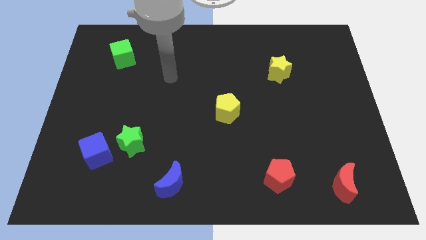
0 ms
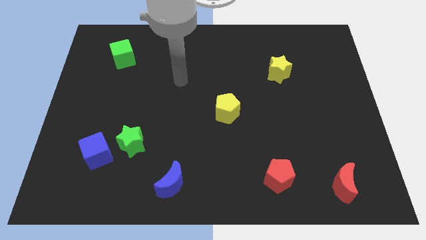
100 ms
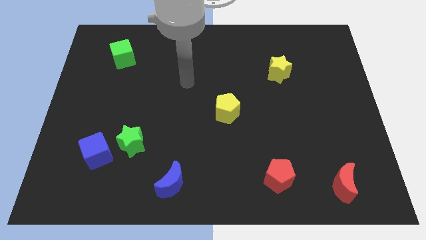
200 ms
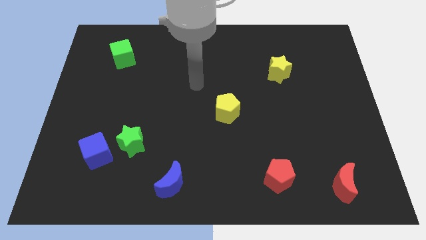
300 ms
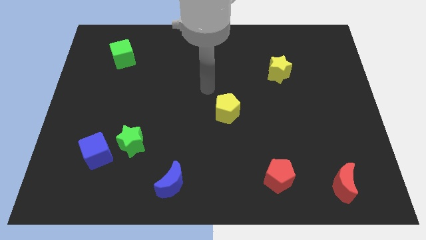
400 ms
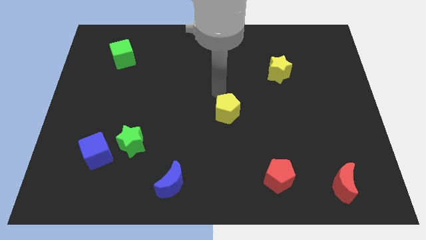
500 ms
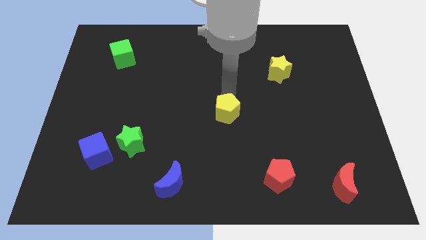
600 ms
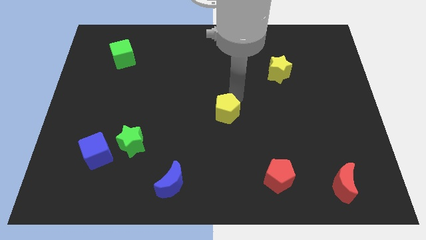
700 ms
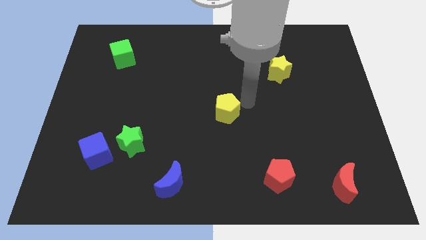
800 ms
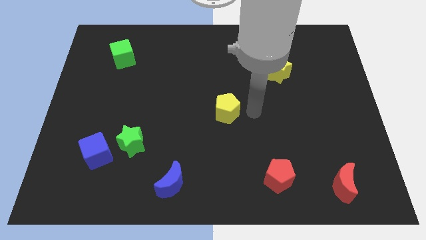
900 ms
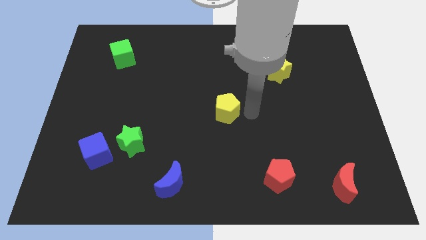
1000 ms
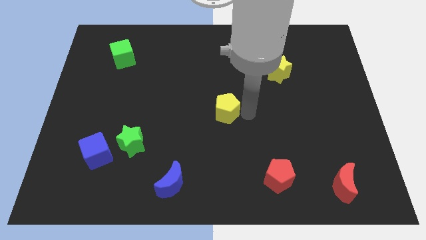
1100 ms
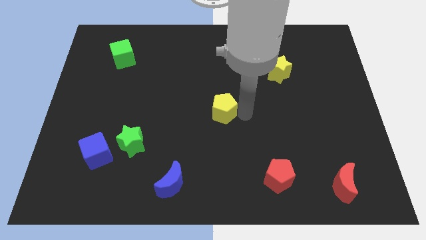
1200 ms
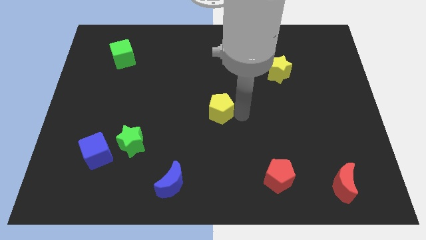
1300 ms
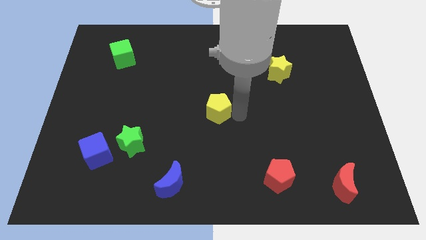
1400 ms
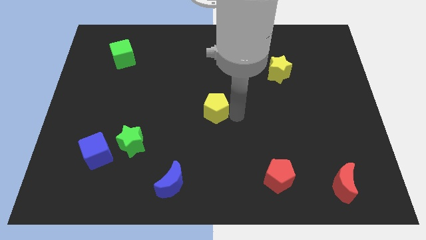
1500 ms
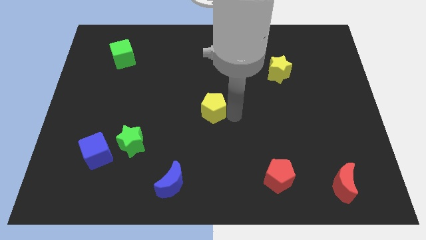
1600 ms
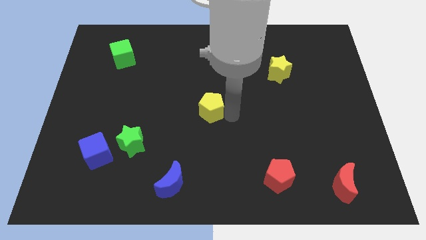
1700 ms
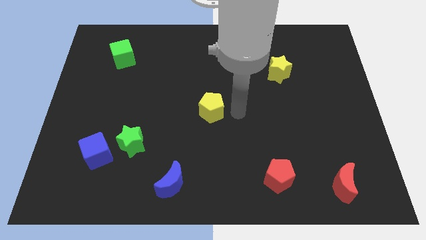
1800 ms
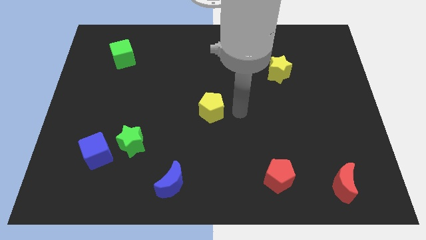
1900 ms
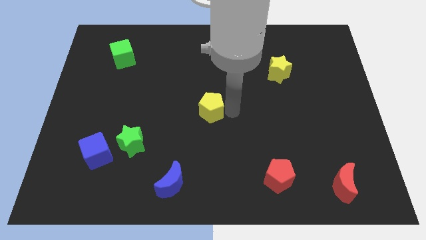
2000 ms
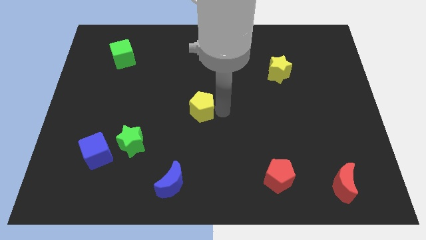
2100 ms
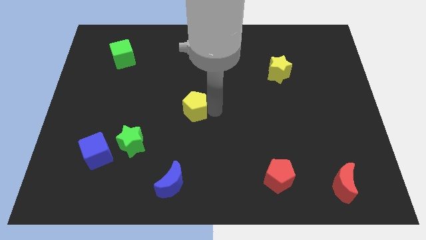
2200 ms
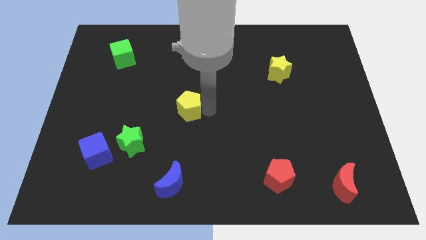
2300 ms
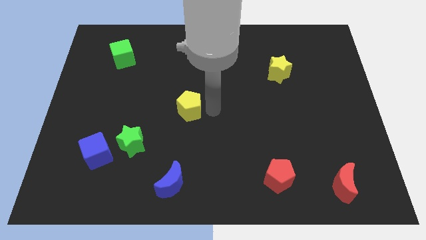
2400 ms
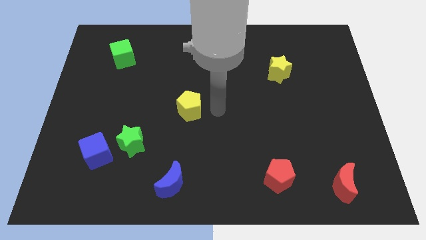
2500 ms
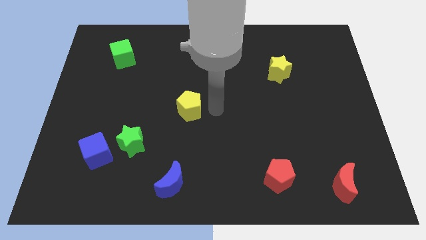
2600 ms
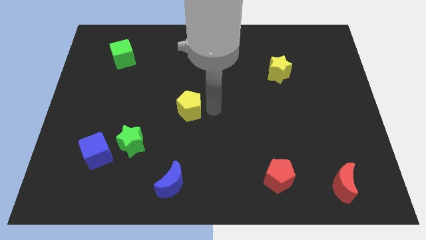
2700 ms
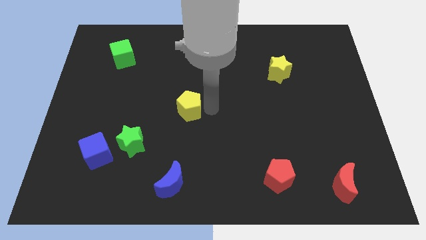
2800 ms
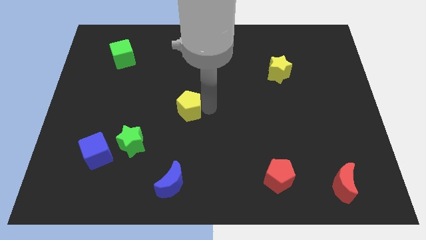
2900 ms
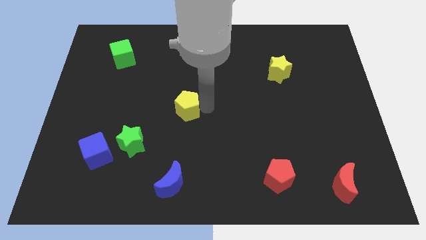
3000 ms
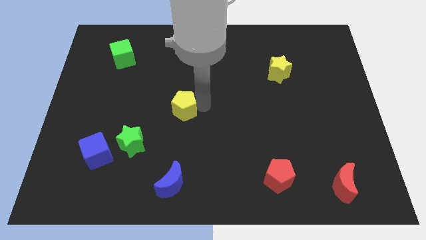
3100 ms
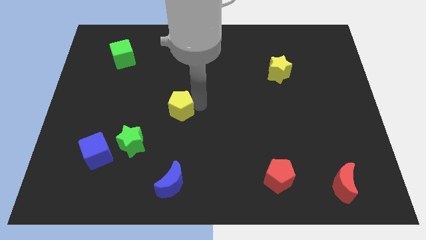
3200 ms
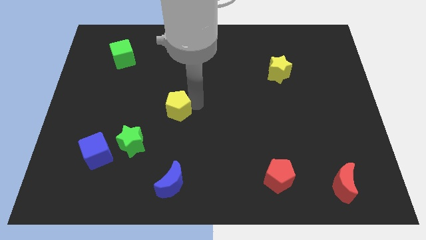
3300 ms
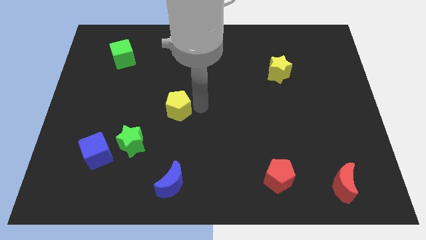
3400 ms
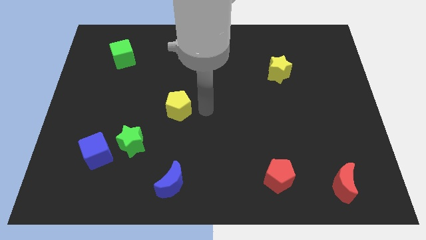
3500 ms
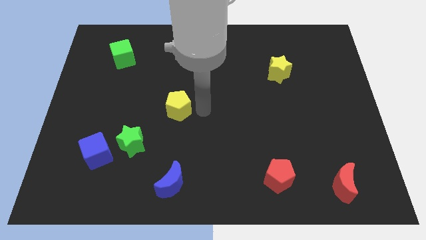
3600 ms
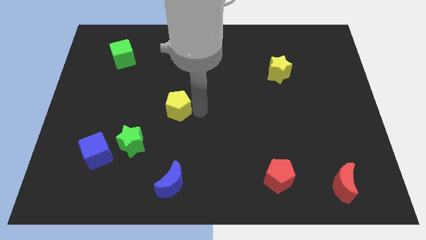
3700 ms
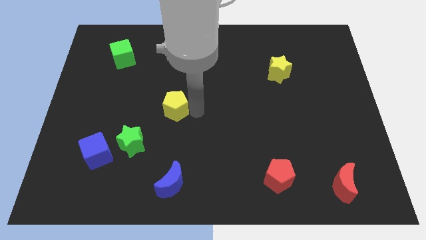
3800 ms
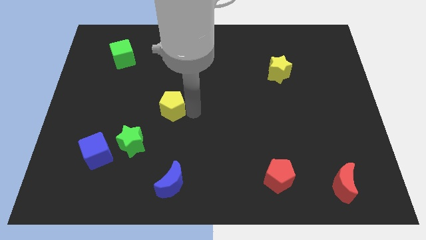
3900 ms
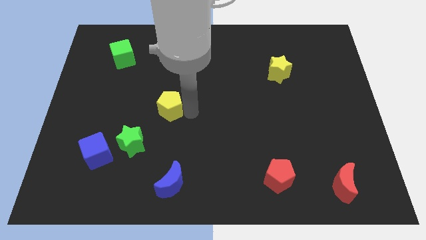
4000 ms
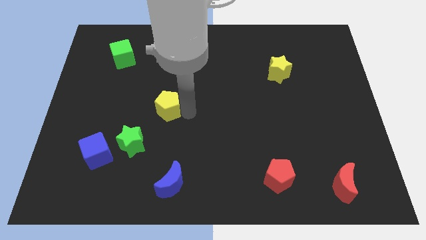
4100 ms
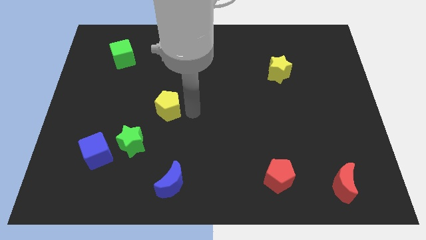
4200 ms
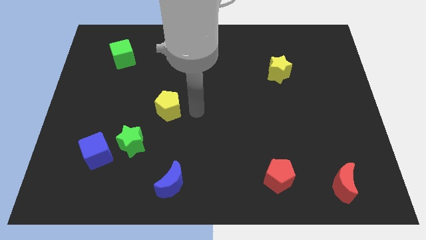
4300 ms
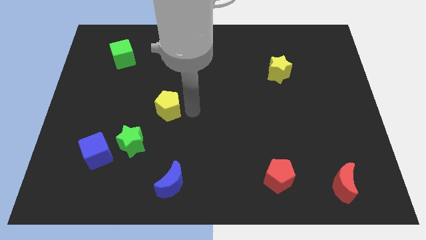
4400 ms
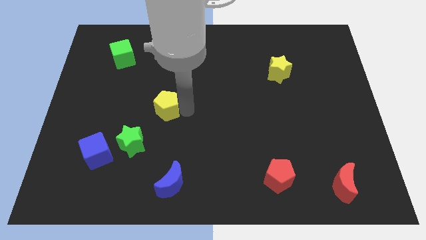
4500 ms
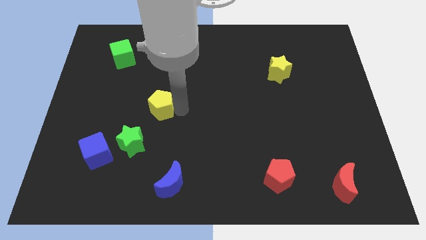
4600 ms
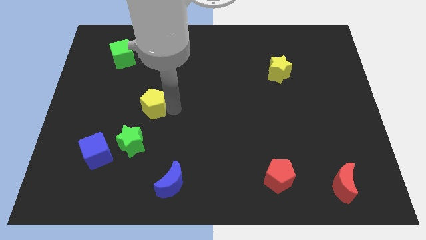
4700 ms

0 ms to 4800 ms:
put the yellow pentagon to the top side of the green star

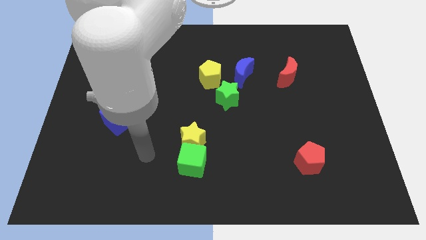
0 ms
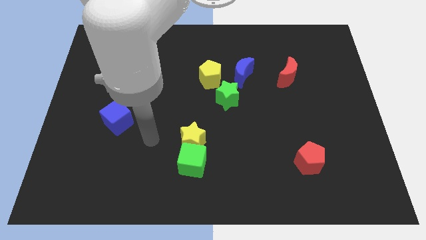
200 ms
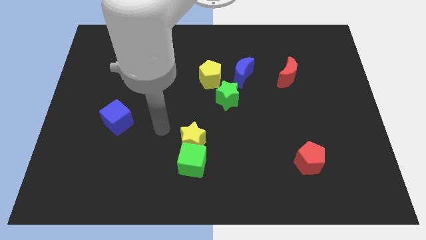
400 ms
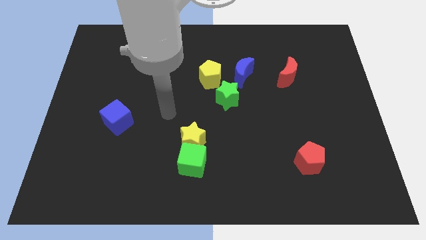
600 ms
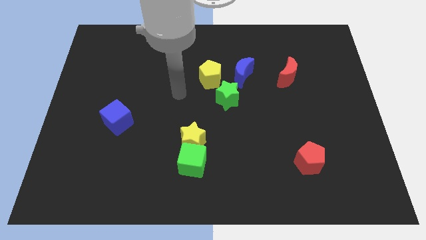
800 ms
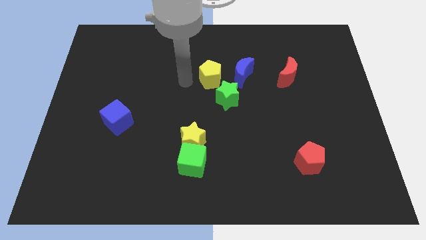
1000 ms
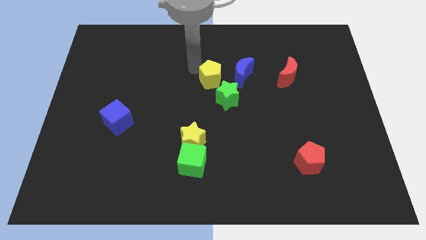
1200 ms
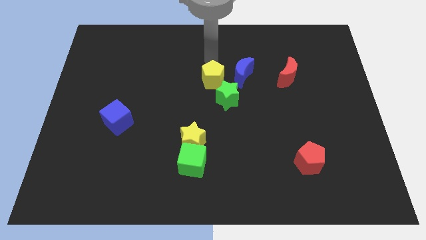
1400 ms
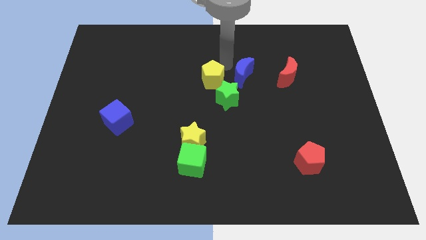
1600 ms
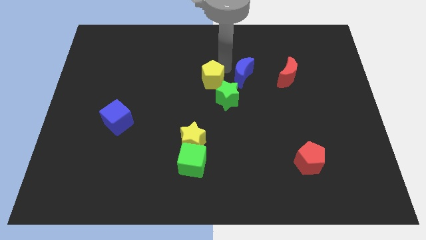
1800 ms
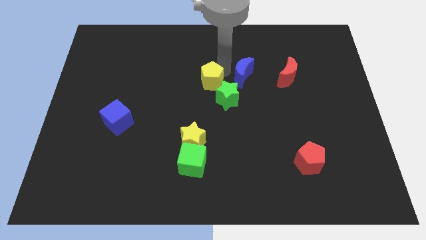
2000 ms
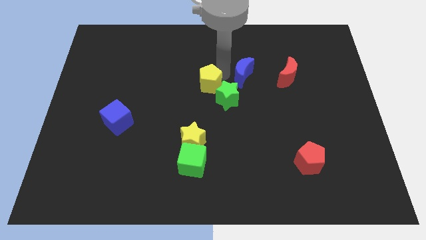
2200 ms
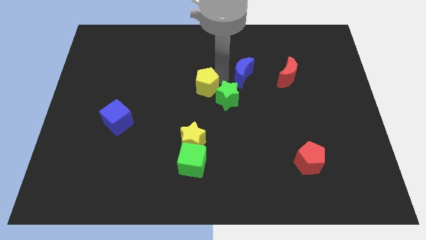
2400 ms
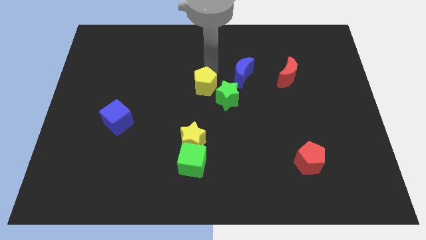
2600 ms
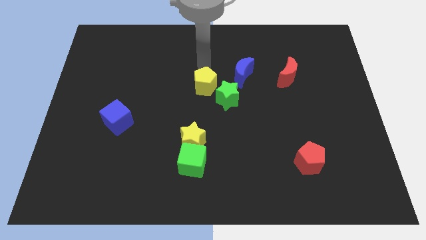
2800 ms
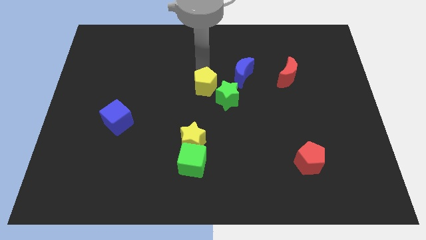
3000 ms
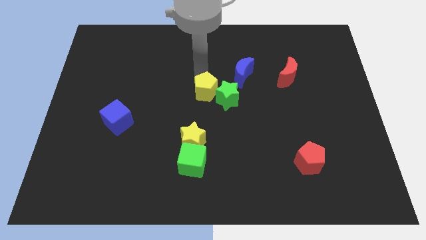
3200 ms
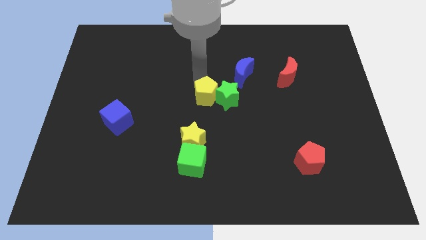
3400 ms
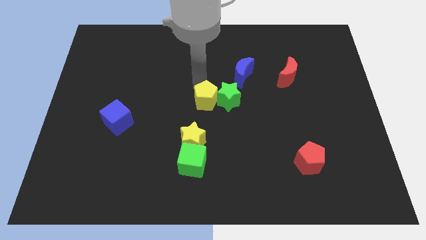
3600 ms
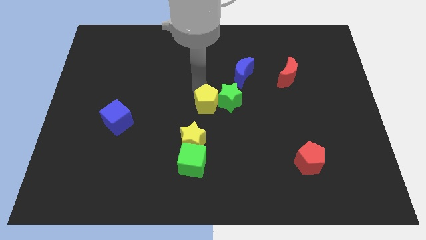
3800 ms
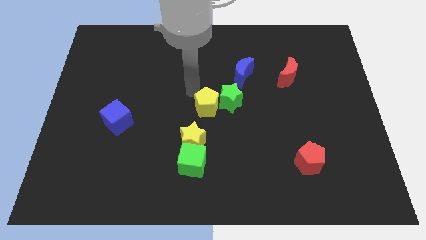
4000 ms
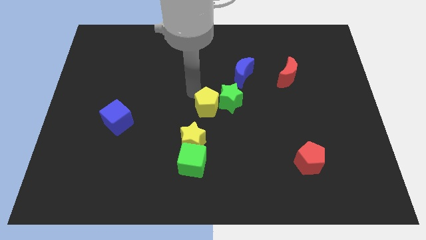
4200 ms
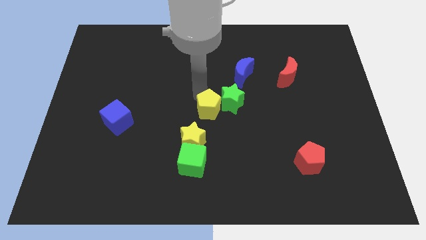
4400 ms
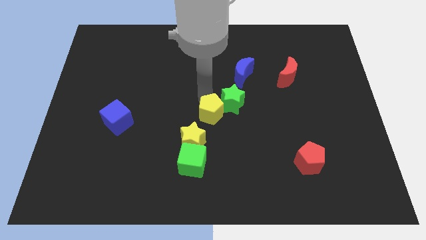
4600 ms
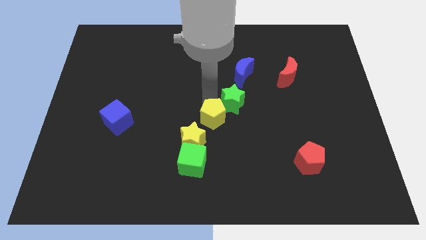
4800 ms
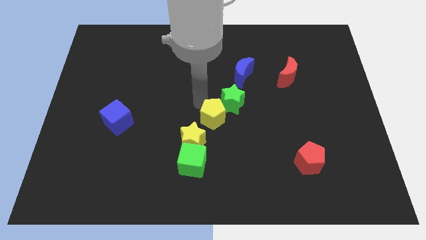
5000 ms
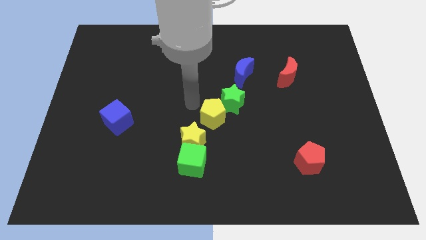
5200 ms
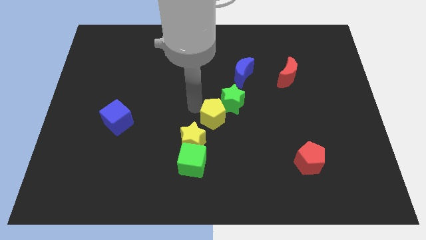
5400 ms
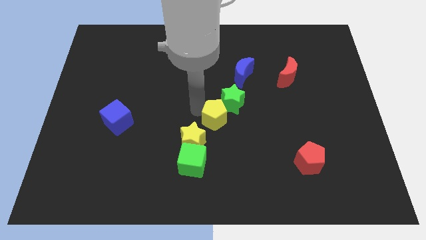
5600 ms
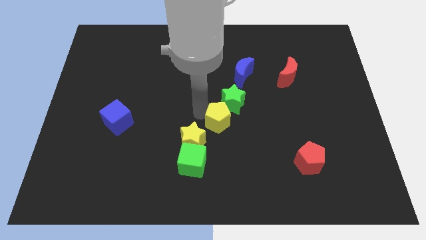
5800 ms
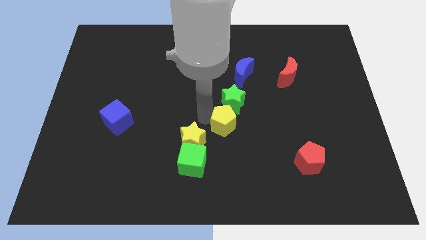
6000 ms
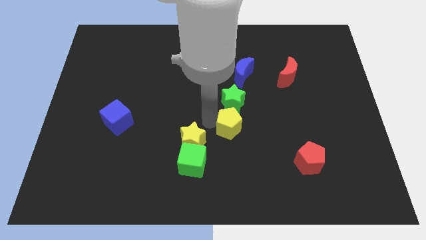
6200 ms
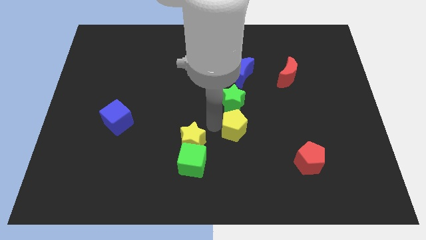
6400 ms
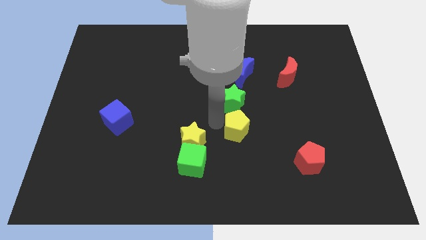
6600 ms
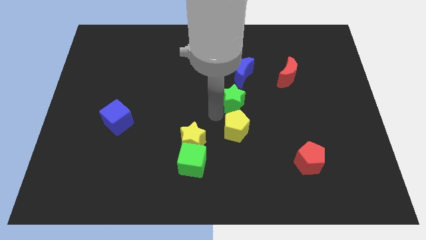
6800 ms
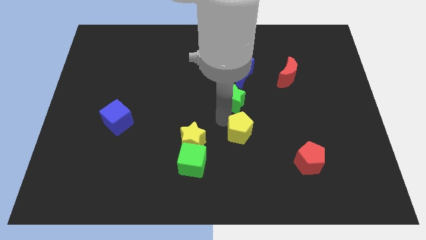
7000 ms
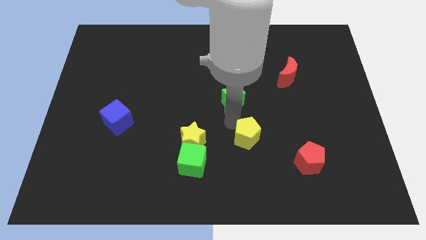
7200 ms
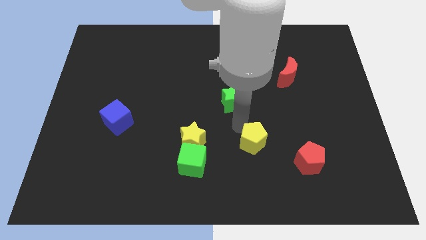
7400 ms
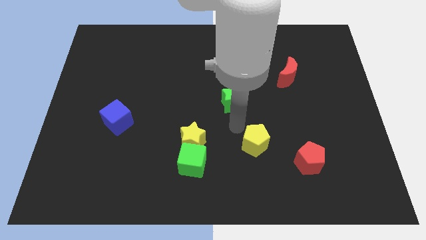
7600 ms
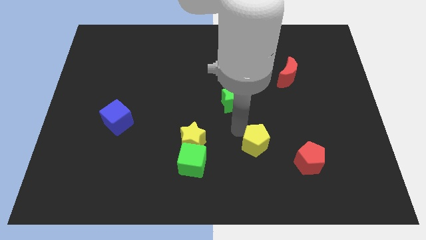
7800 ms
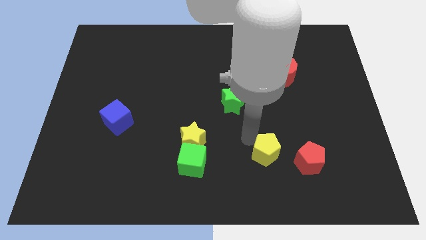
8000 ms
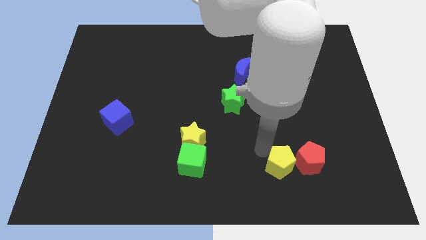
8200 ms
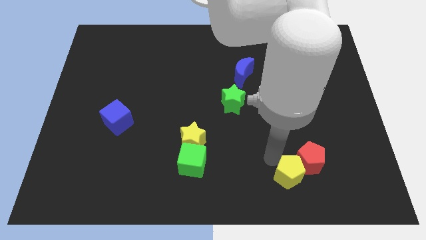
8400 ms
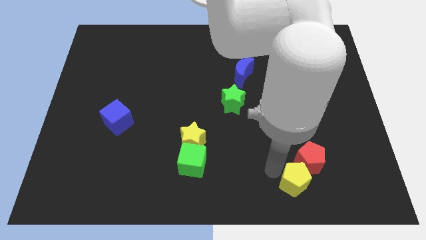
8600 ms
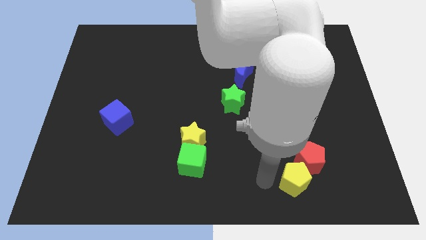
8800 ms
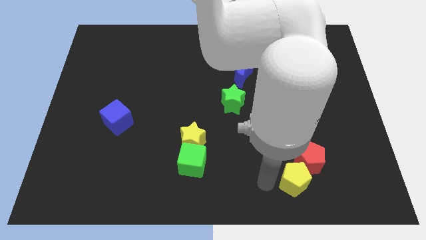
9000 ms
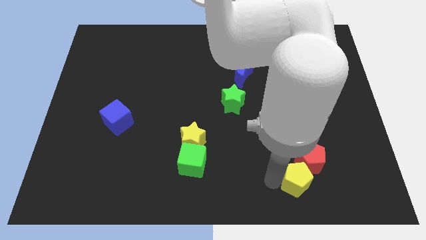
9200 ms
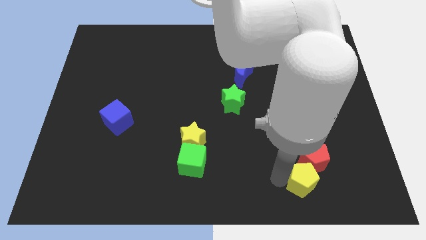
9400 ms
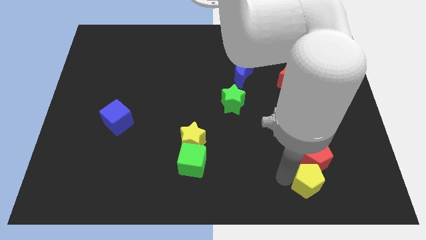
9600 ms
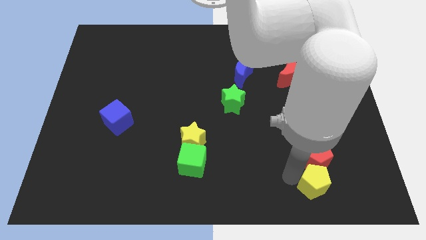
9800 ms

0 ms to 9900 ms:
move the yellow pentagon to the bottom right of the red pentagon
